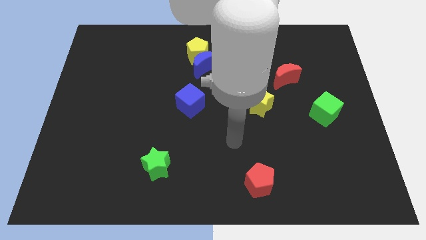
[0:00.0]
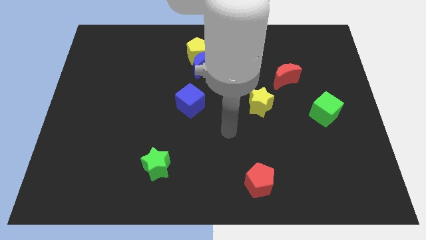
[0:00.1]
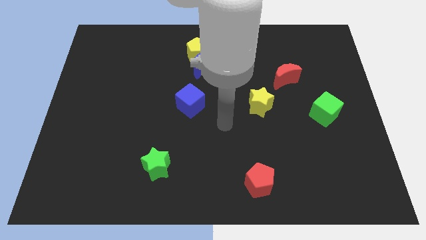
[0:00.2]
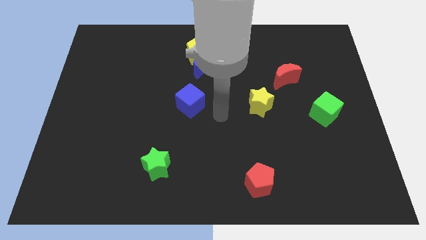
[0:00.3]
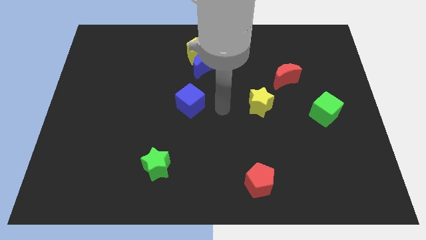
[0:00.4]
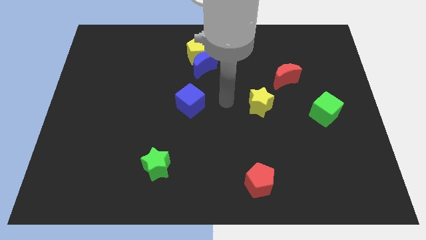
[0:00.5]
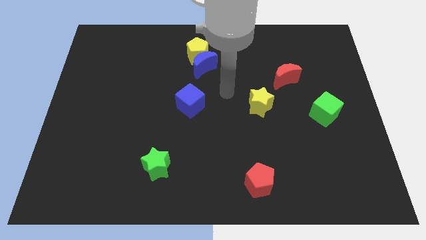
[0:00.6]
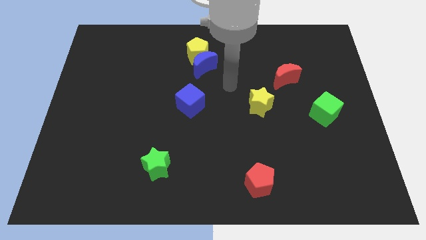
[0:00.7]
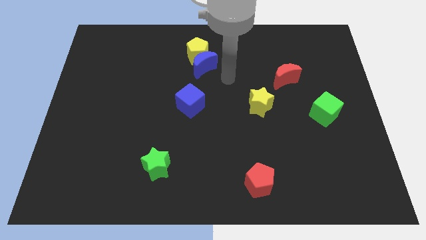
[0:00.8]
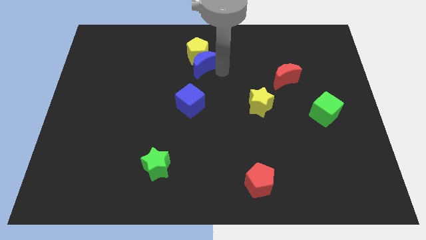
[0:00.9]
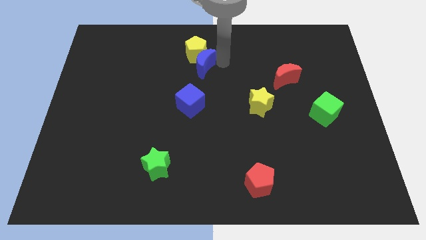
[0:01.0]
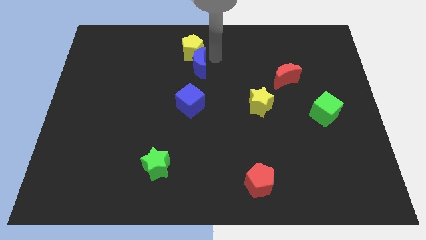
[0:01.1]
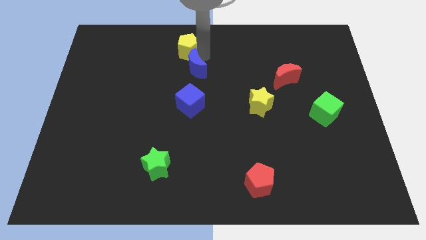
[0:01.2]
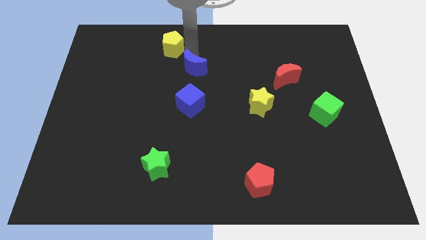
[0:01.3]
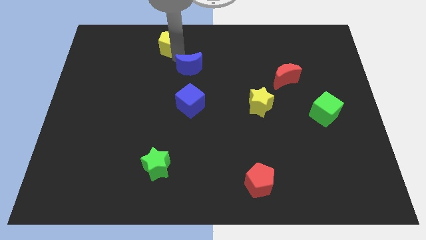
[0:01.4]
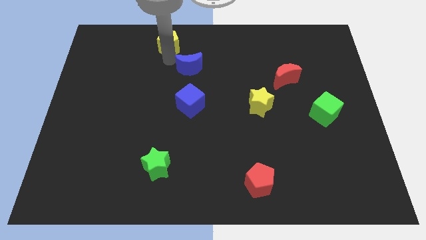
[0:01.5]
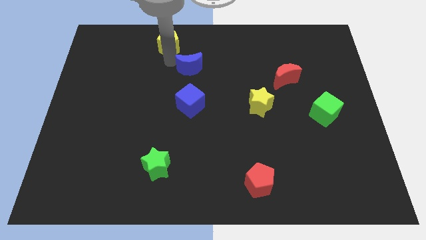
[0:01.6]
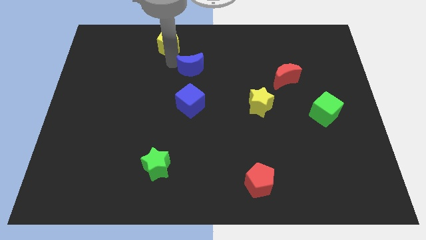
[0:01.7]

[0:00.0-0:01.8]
move the blue moon away from the yellow pentagon

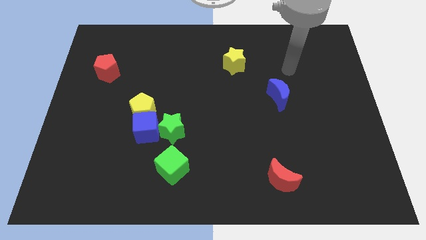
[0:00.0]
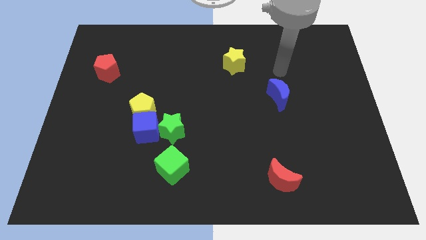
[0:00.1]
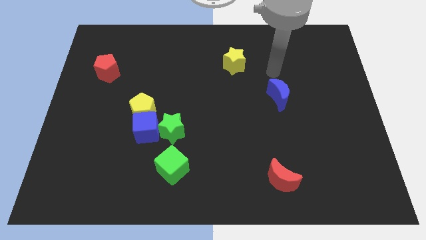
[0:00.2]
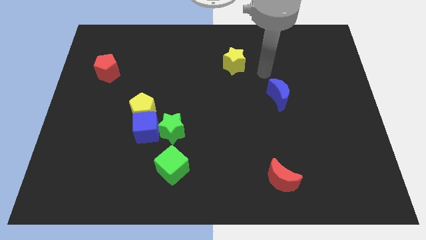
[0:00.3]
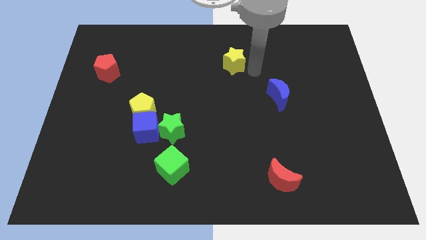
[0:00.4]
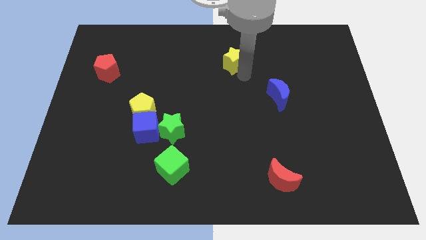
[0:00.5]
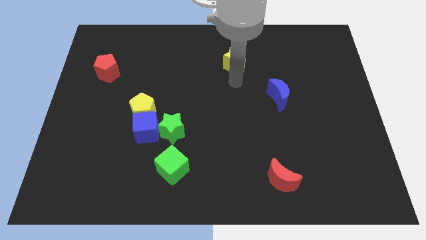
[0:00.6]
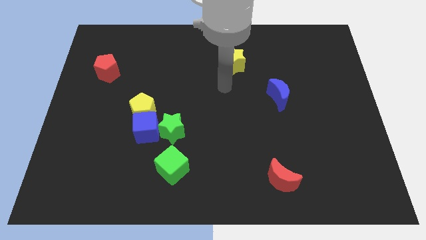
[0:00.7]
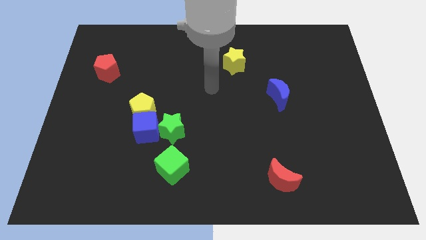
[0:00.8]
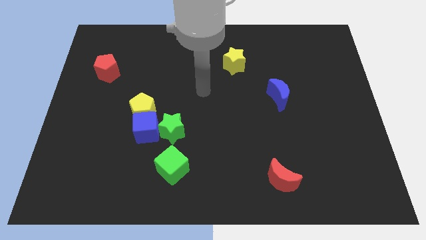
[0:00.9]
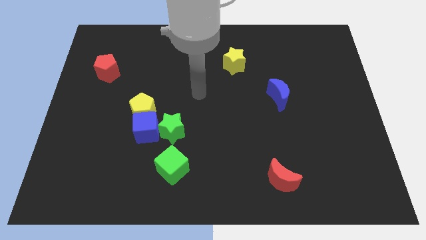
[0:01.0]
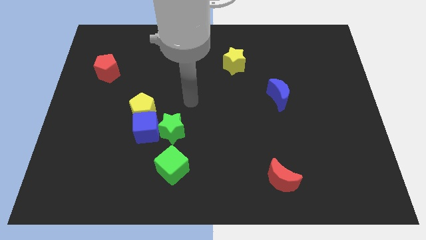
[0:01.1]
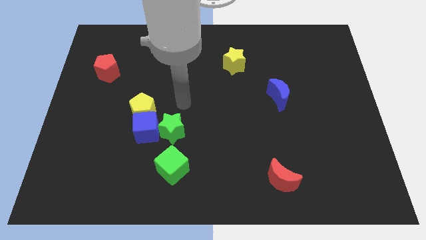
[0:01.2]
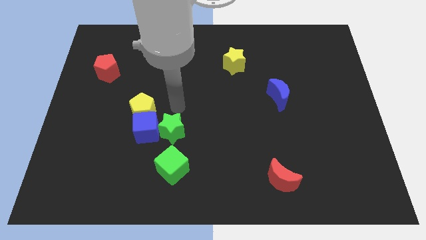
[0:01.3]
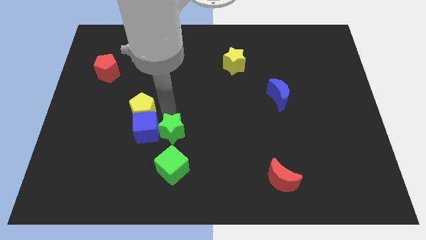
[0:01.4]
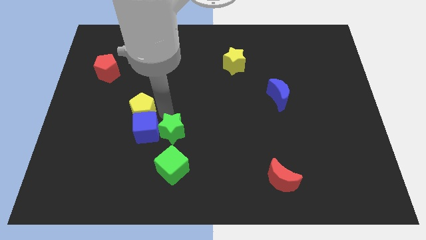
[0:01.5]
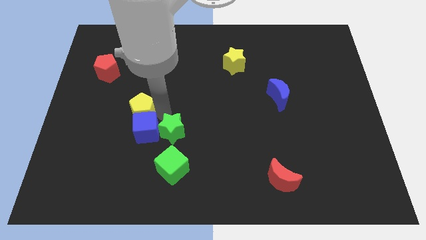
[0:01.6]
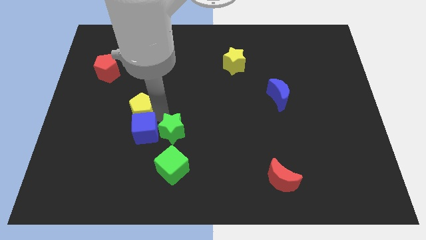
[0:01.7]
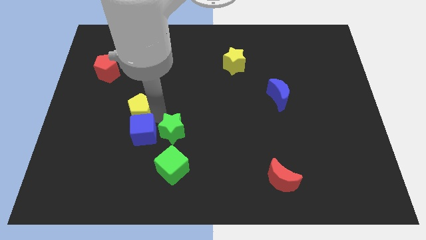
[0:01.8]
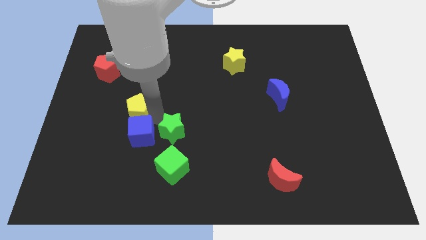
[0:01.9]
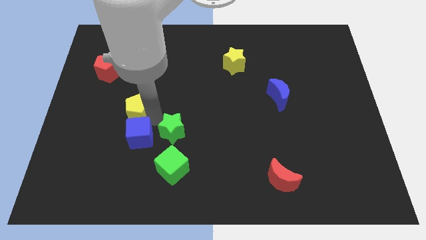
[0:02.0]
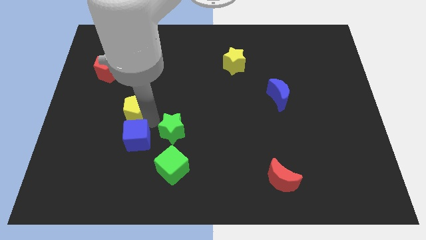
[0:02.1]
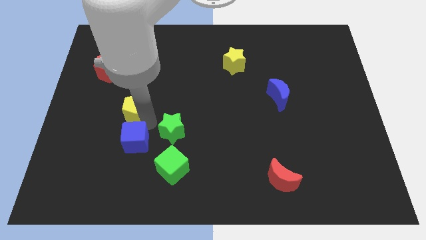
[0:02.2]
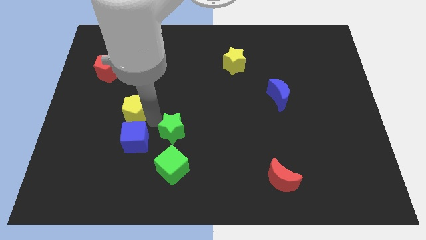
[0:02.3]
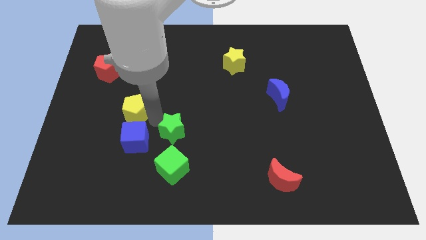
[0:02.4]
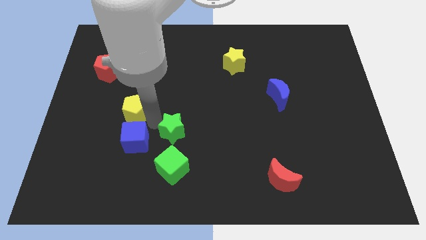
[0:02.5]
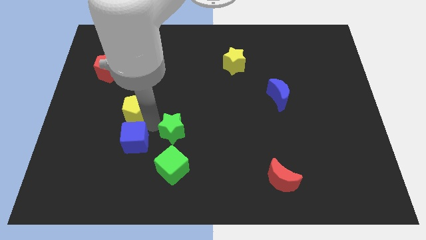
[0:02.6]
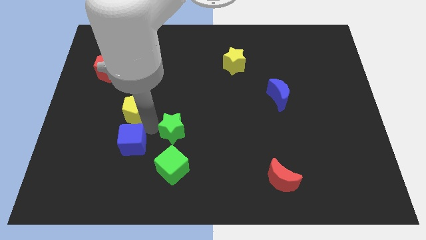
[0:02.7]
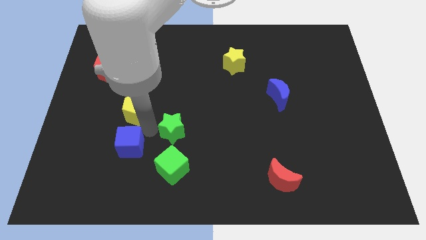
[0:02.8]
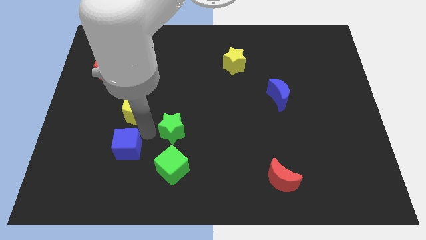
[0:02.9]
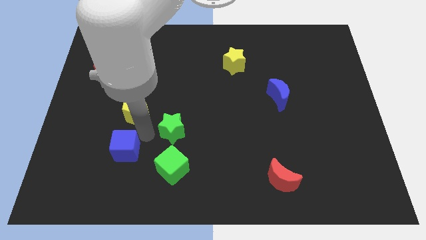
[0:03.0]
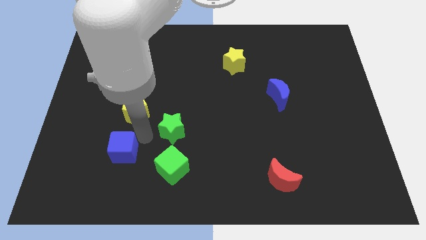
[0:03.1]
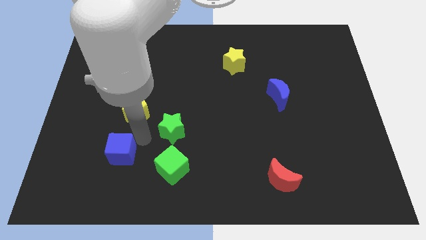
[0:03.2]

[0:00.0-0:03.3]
move the blue cube away from the yellow pentagon and green star

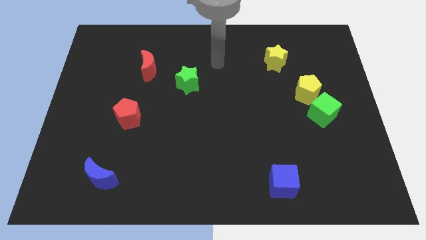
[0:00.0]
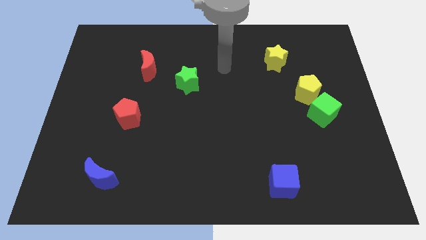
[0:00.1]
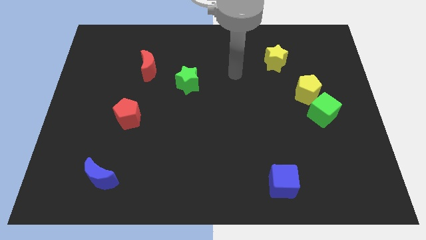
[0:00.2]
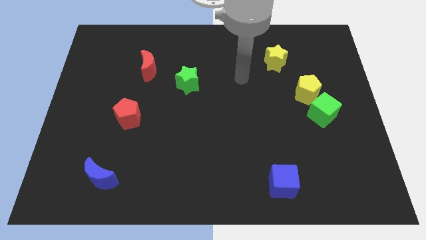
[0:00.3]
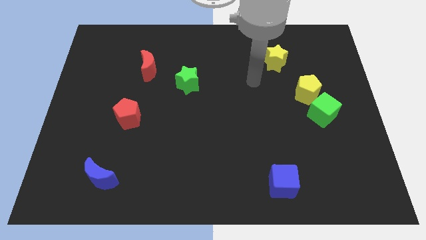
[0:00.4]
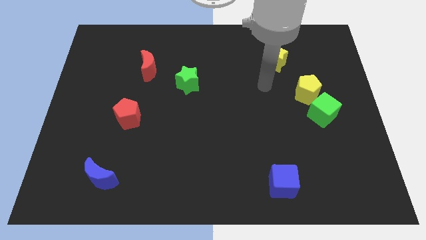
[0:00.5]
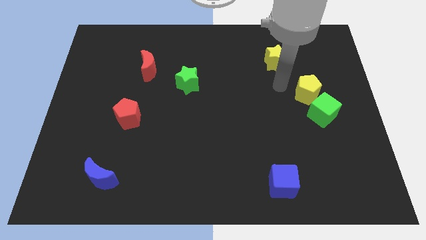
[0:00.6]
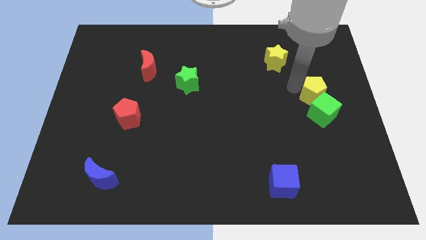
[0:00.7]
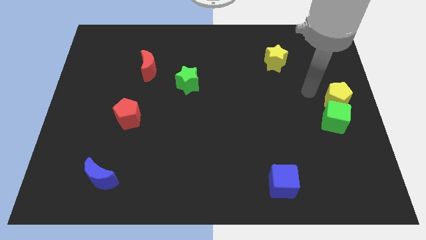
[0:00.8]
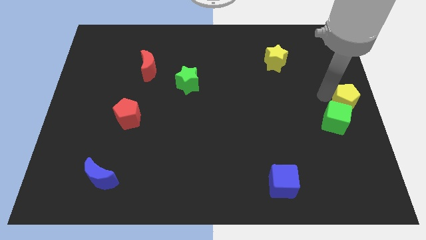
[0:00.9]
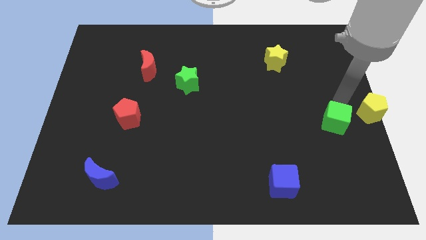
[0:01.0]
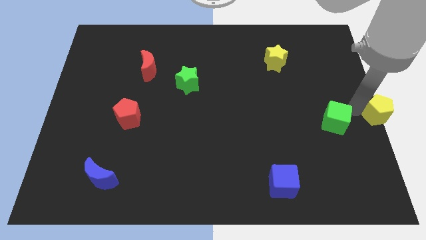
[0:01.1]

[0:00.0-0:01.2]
pull the green cube apart from the yellow pentagon

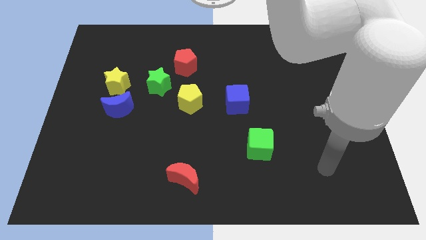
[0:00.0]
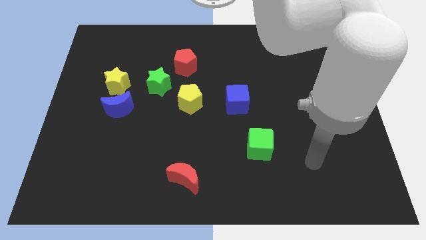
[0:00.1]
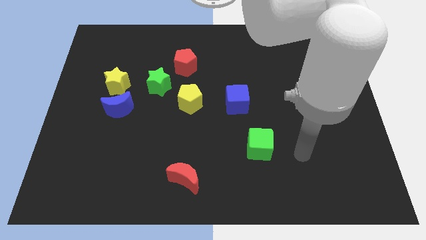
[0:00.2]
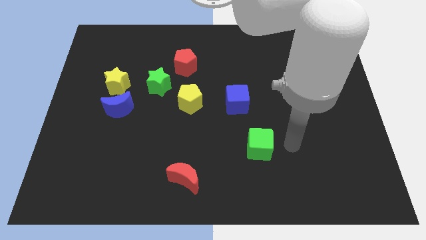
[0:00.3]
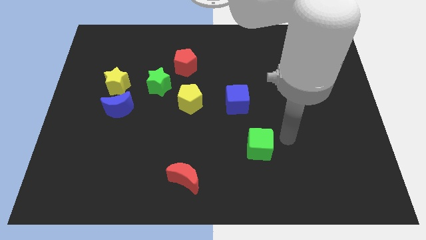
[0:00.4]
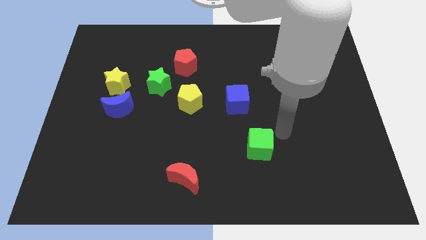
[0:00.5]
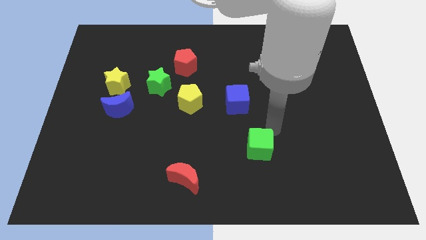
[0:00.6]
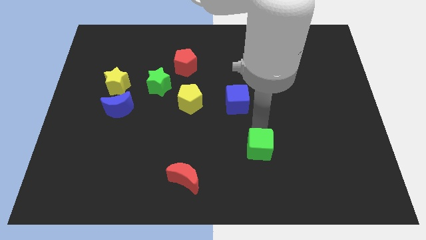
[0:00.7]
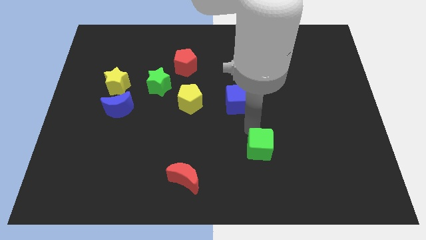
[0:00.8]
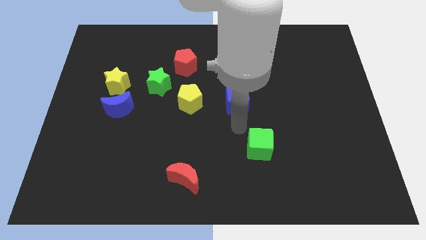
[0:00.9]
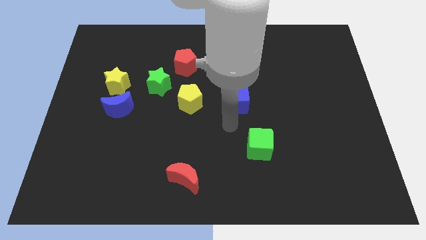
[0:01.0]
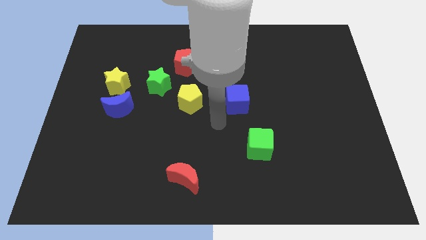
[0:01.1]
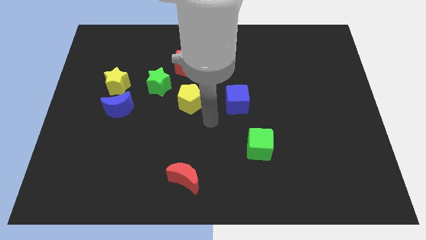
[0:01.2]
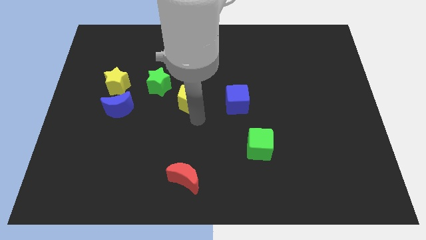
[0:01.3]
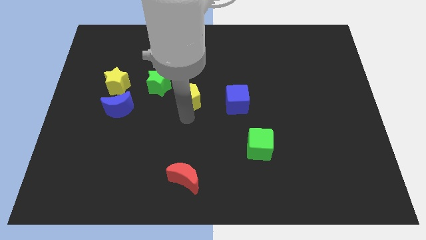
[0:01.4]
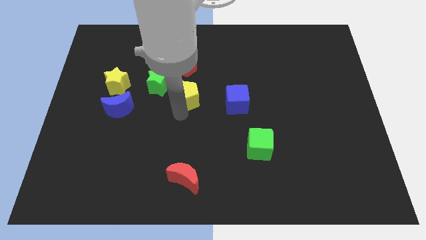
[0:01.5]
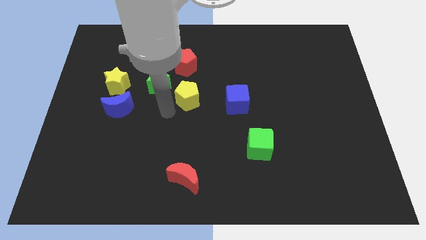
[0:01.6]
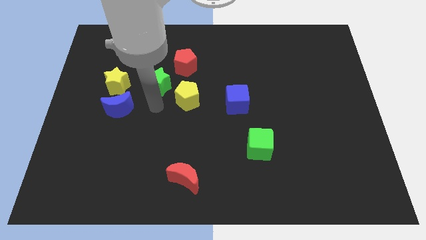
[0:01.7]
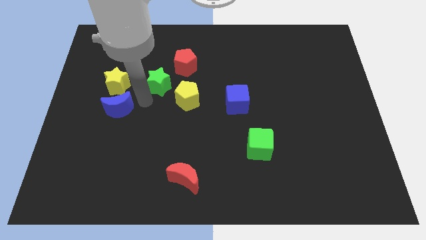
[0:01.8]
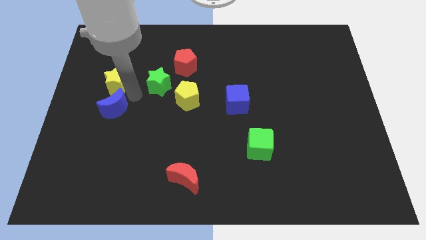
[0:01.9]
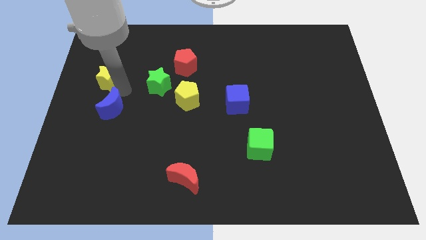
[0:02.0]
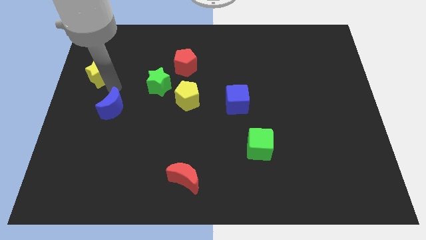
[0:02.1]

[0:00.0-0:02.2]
pull the blue moon apart from the yellow star

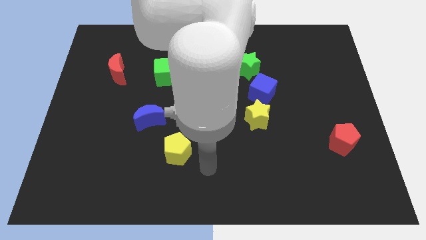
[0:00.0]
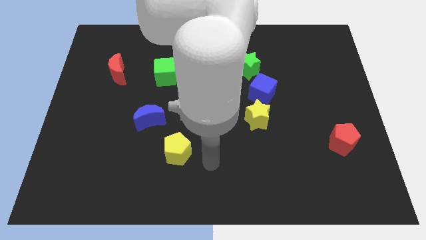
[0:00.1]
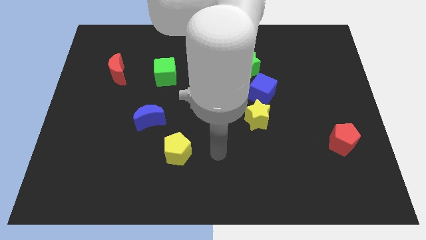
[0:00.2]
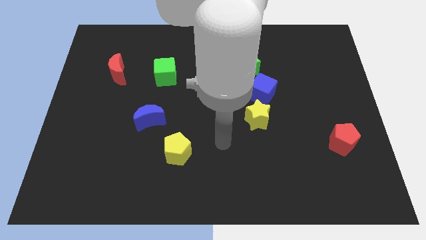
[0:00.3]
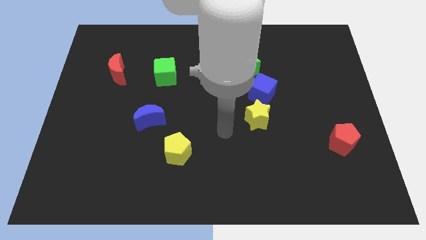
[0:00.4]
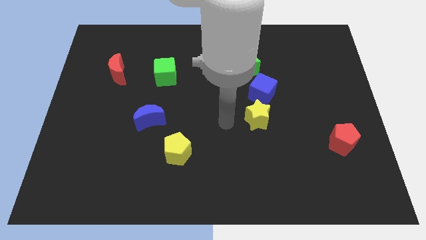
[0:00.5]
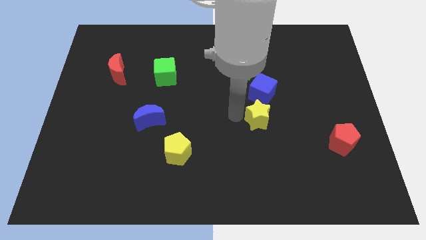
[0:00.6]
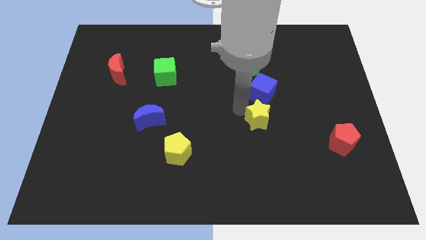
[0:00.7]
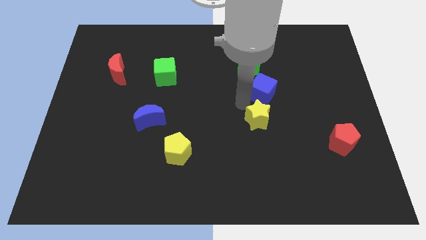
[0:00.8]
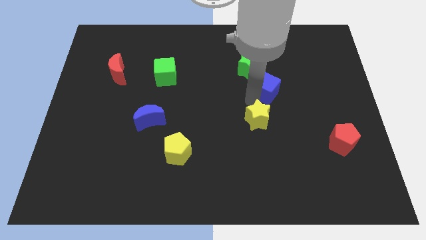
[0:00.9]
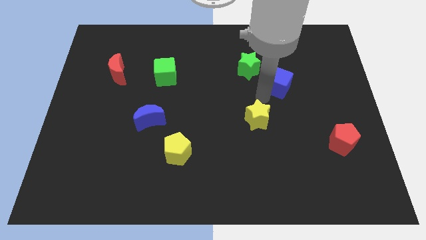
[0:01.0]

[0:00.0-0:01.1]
pull the yellow star apart from the blue cube
